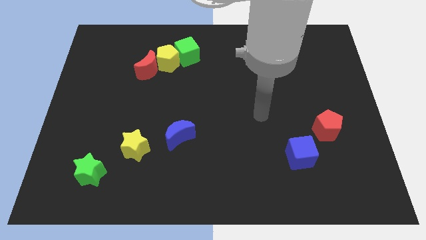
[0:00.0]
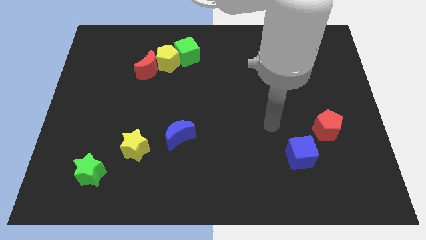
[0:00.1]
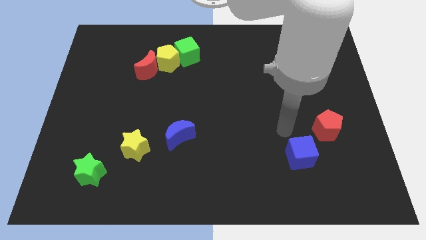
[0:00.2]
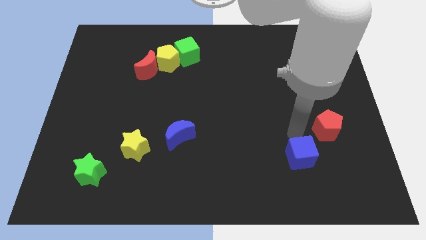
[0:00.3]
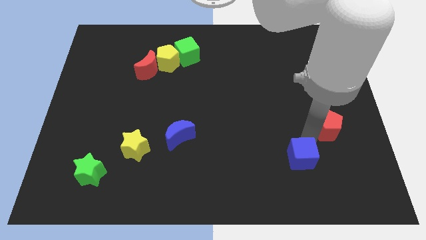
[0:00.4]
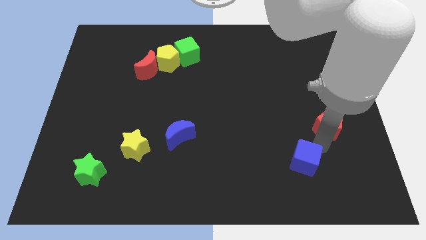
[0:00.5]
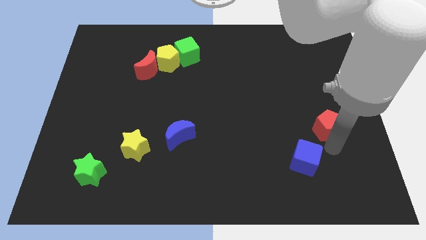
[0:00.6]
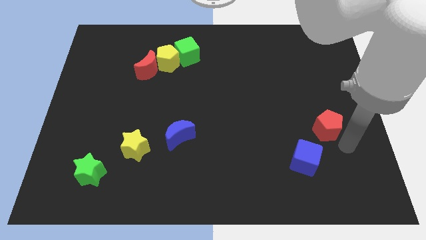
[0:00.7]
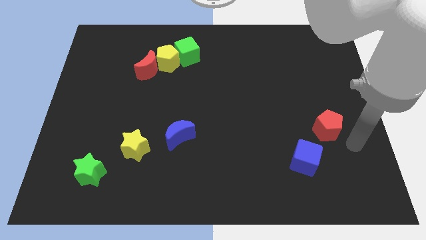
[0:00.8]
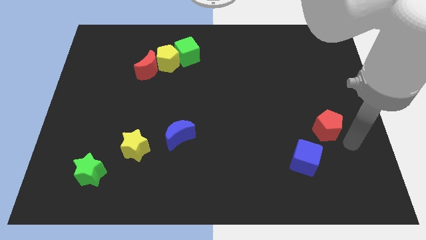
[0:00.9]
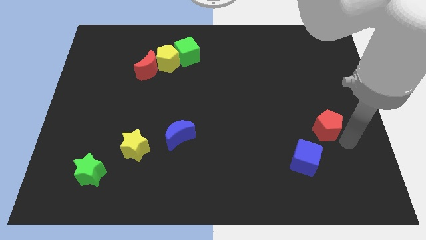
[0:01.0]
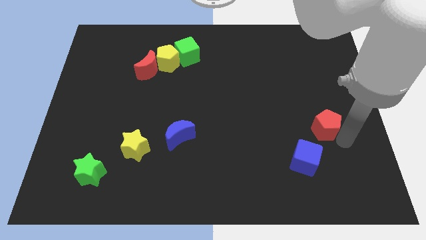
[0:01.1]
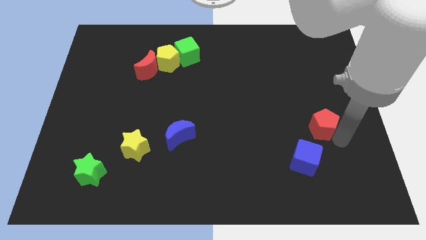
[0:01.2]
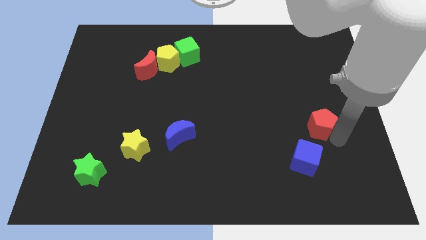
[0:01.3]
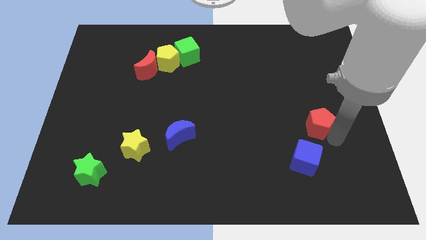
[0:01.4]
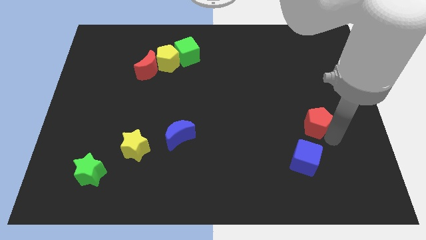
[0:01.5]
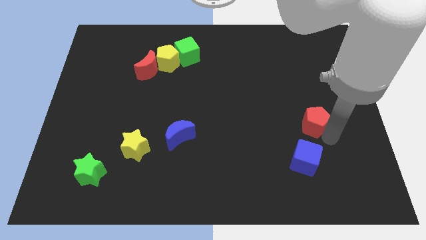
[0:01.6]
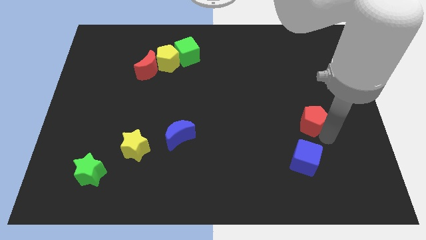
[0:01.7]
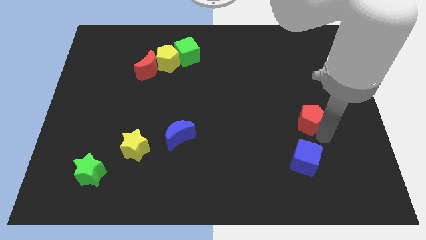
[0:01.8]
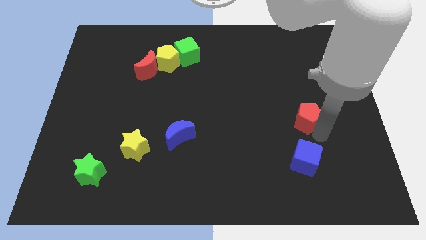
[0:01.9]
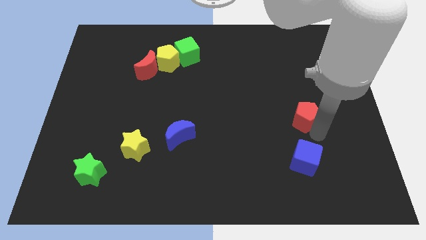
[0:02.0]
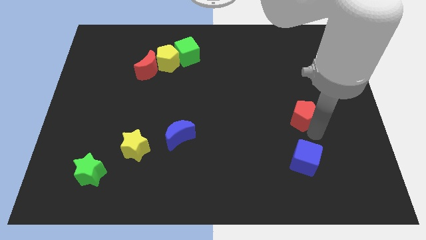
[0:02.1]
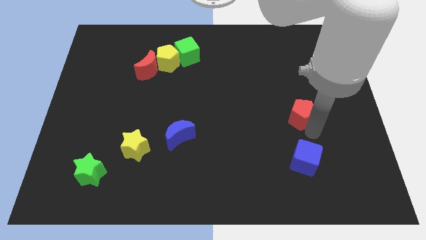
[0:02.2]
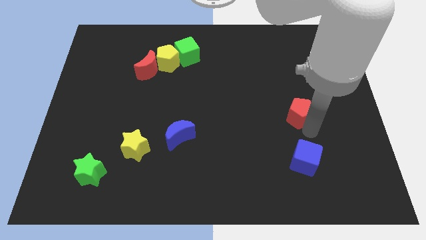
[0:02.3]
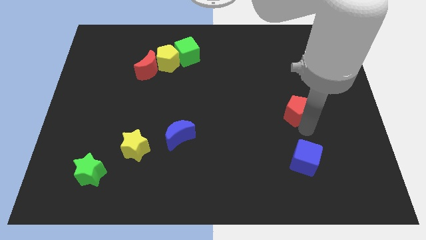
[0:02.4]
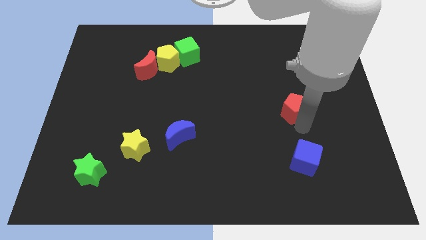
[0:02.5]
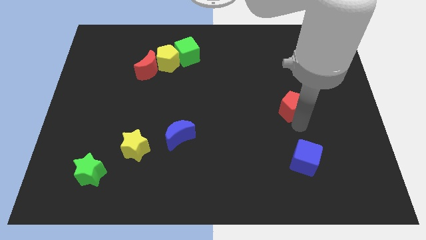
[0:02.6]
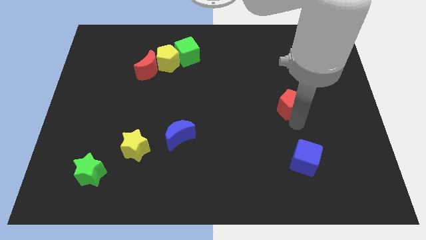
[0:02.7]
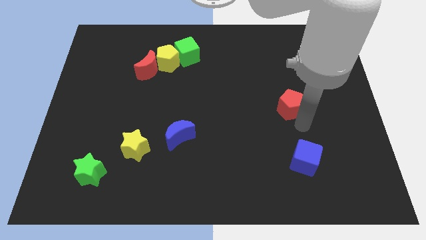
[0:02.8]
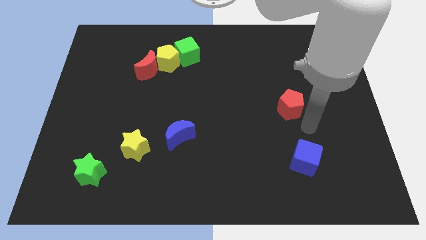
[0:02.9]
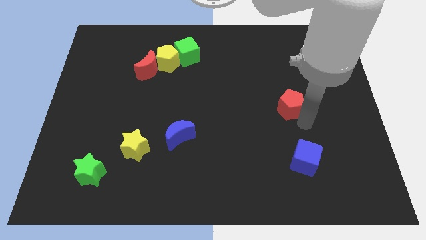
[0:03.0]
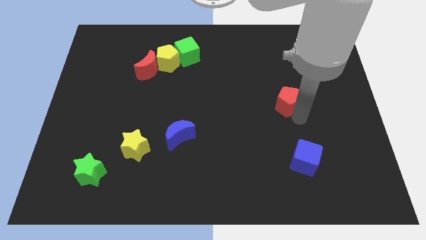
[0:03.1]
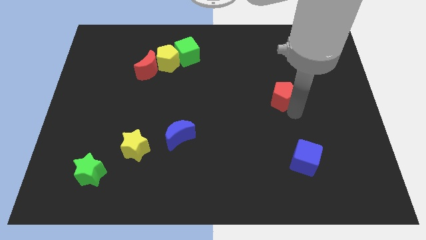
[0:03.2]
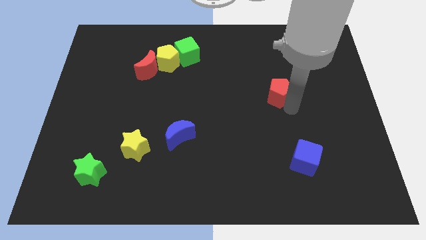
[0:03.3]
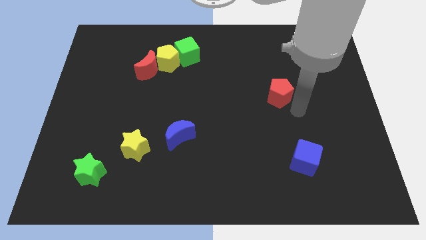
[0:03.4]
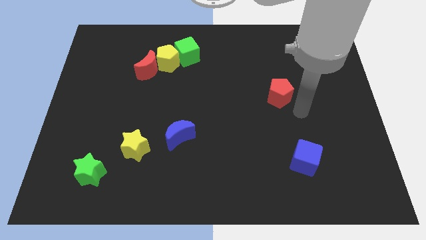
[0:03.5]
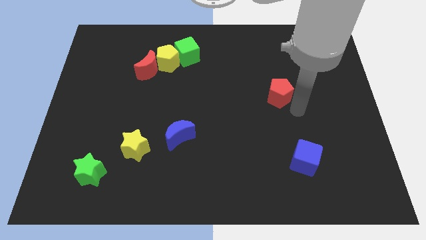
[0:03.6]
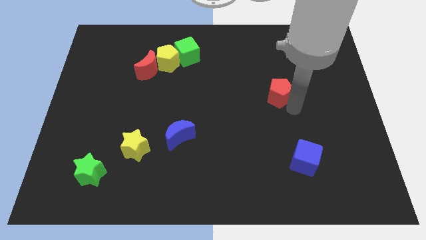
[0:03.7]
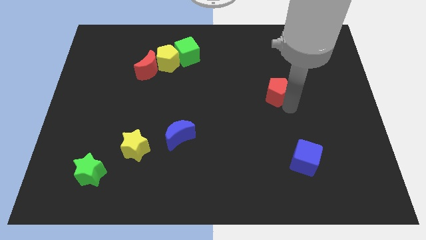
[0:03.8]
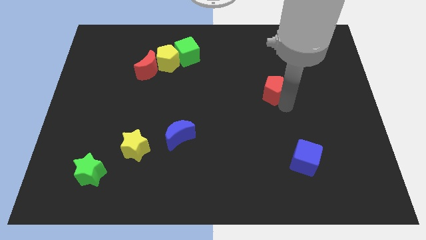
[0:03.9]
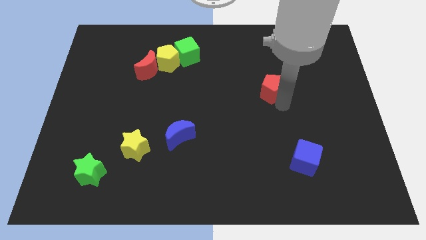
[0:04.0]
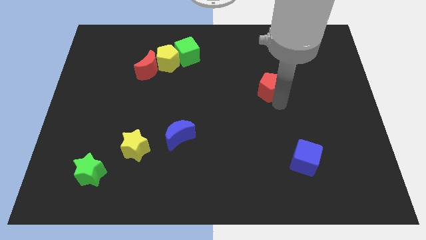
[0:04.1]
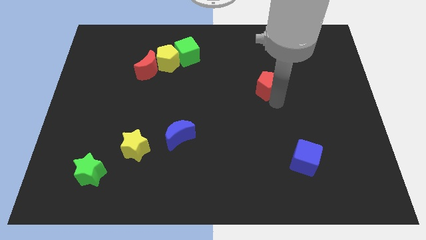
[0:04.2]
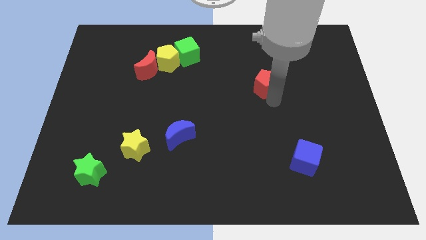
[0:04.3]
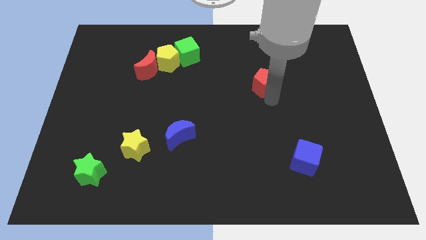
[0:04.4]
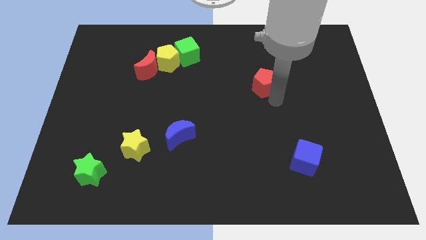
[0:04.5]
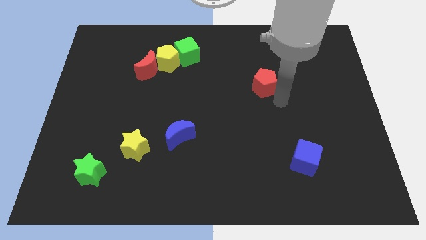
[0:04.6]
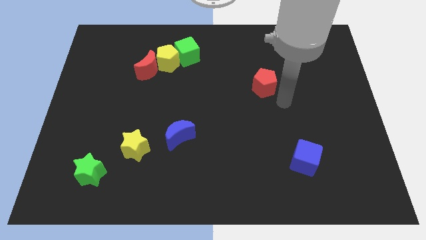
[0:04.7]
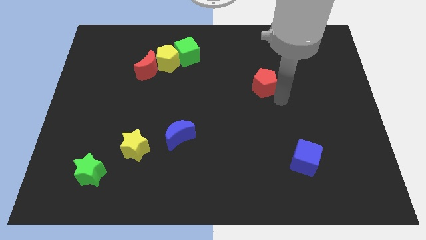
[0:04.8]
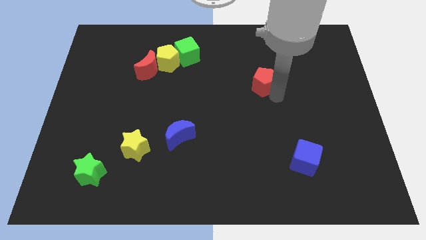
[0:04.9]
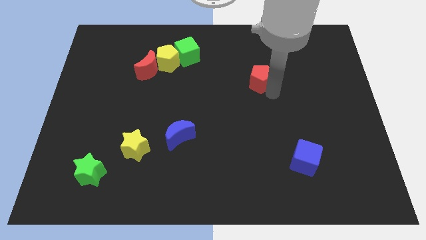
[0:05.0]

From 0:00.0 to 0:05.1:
push the red pentagon up and then left

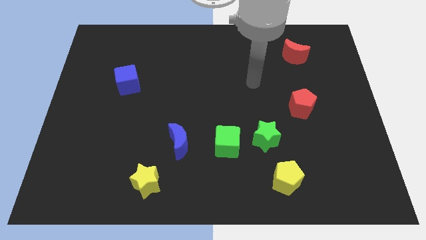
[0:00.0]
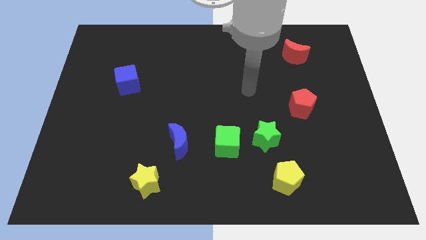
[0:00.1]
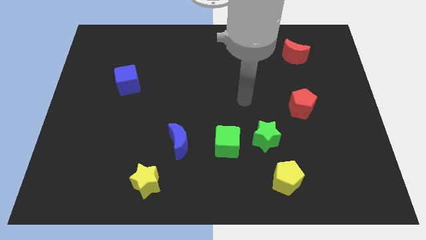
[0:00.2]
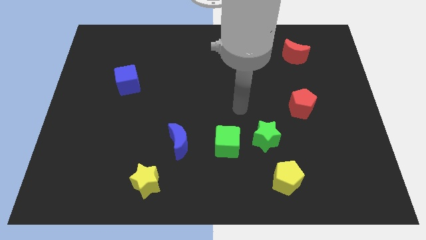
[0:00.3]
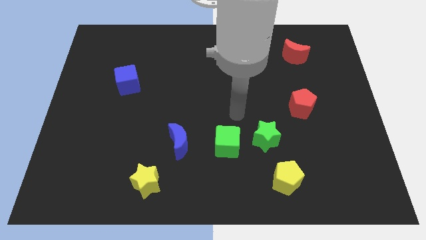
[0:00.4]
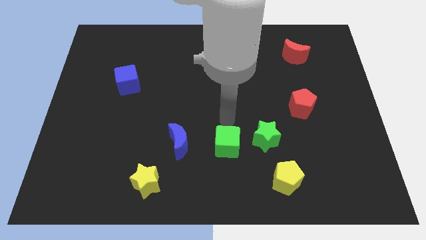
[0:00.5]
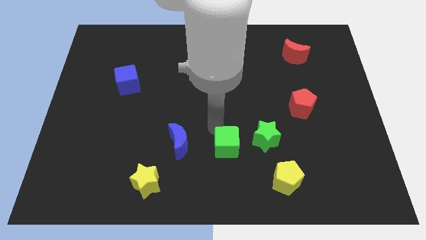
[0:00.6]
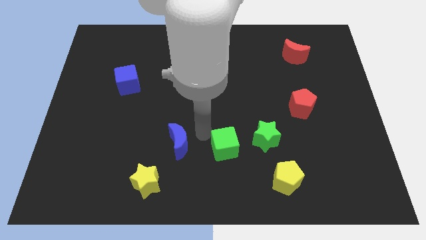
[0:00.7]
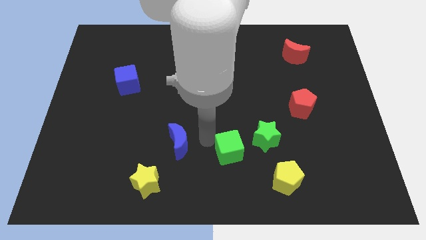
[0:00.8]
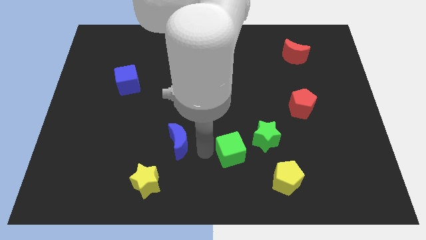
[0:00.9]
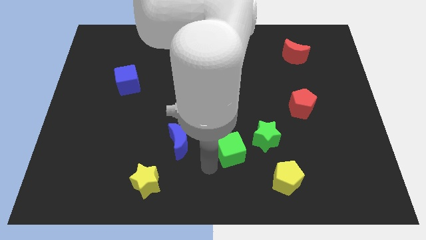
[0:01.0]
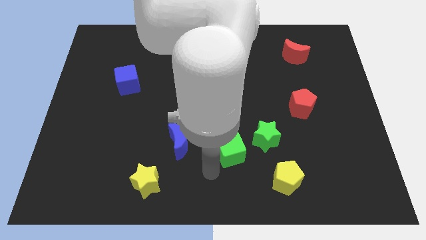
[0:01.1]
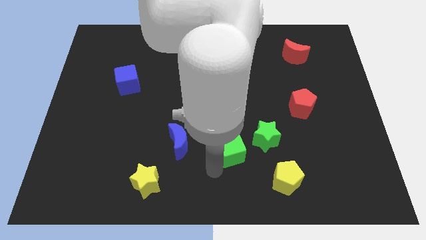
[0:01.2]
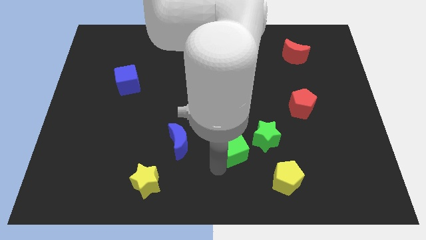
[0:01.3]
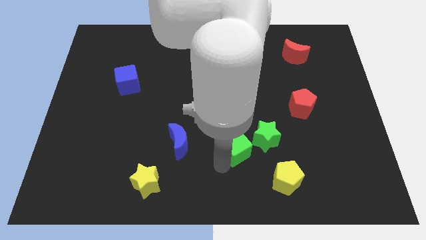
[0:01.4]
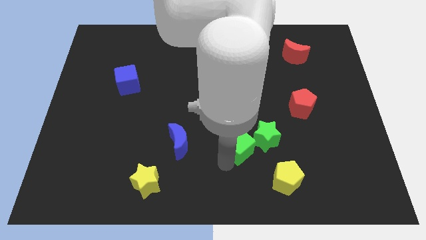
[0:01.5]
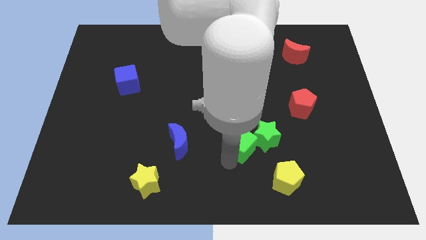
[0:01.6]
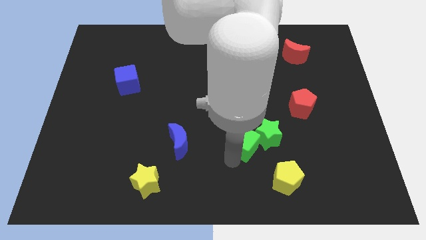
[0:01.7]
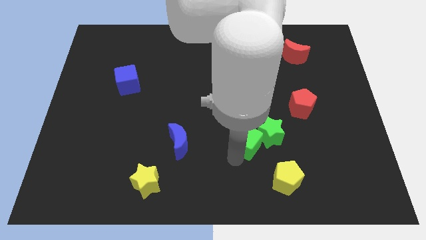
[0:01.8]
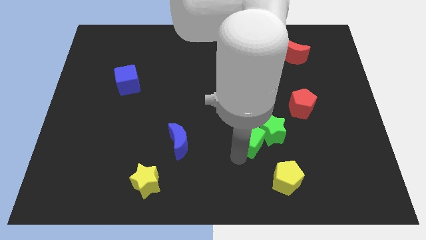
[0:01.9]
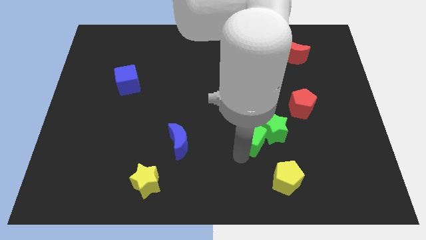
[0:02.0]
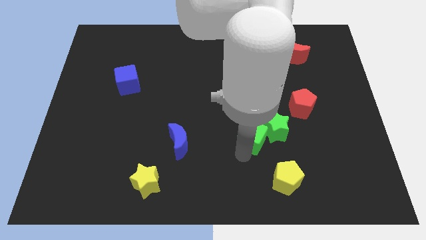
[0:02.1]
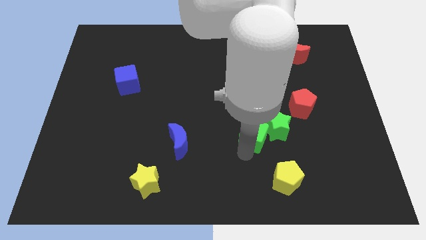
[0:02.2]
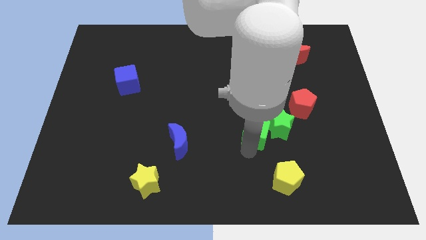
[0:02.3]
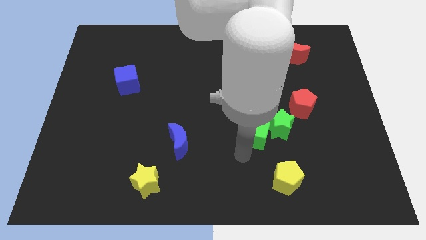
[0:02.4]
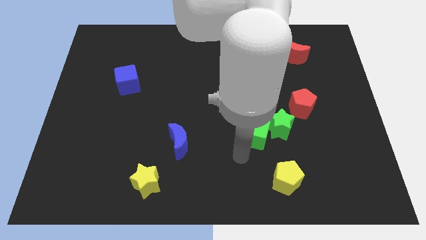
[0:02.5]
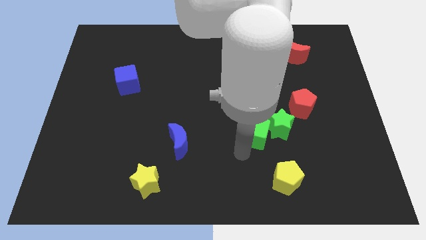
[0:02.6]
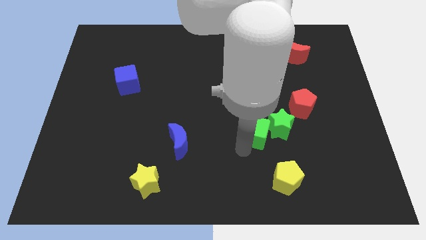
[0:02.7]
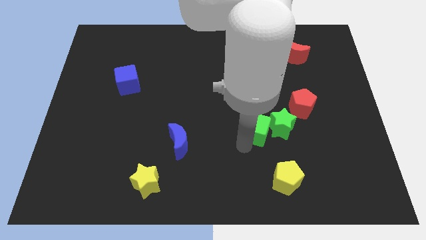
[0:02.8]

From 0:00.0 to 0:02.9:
slightly slide the green cube diagonally up and to the right
